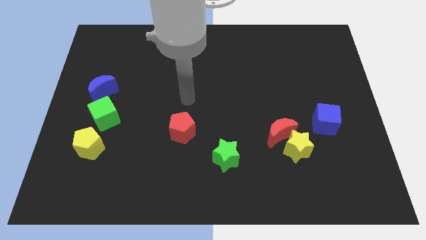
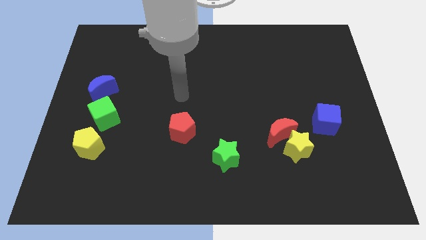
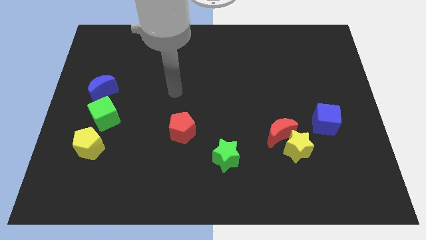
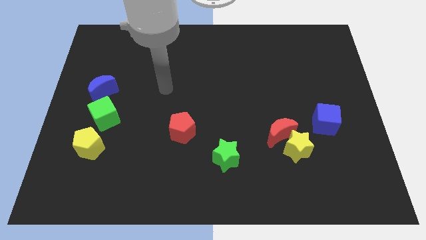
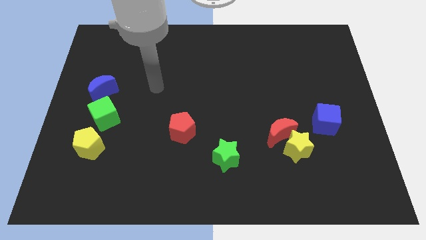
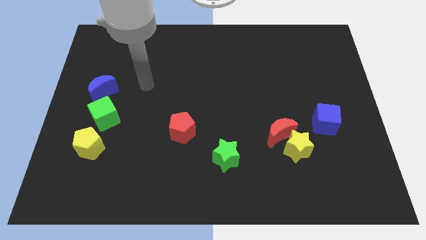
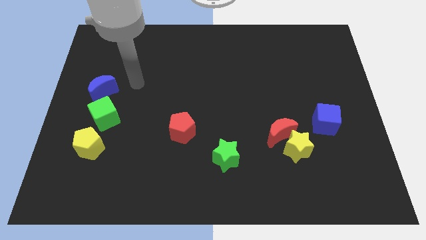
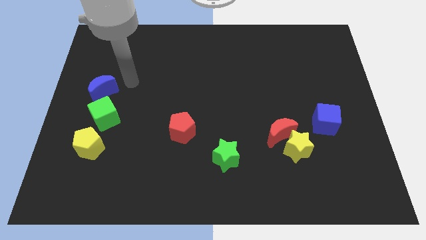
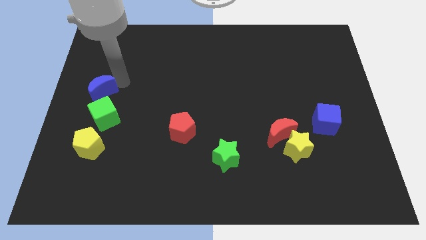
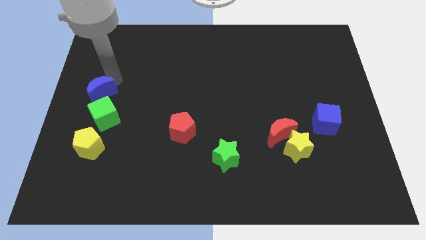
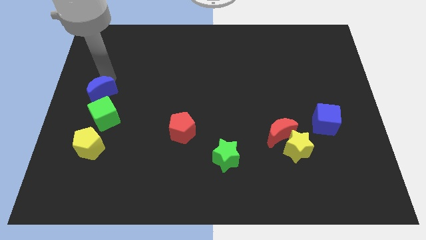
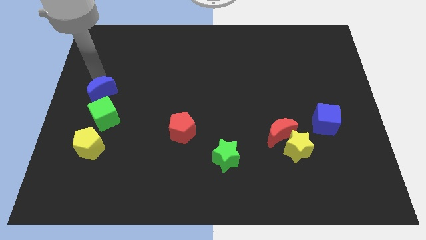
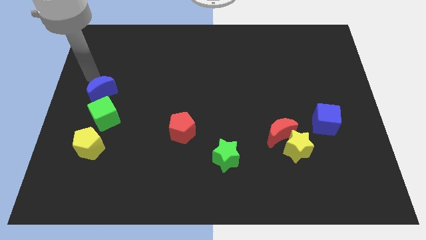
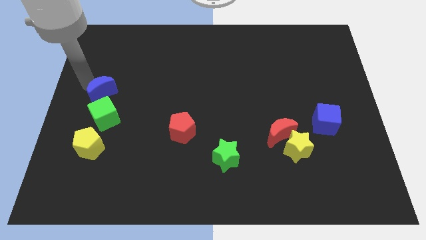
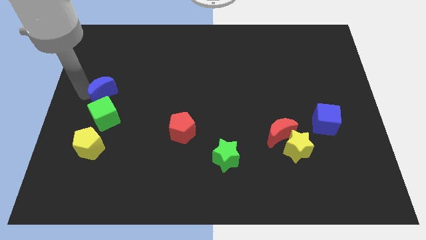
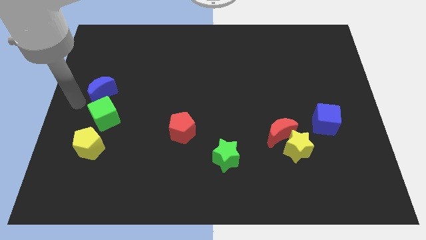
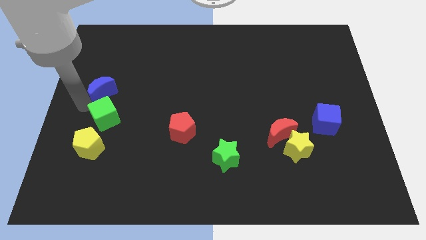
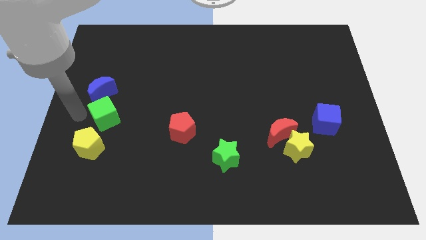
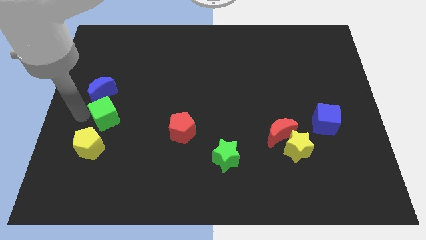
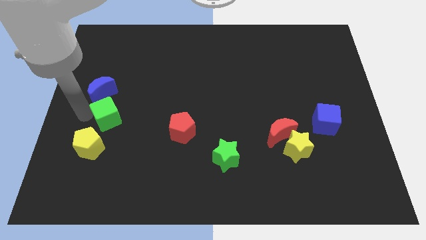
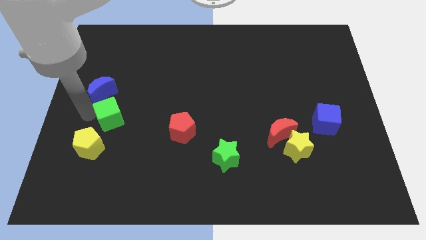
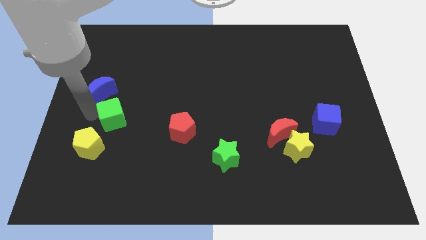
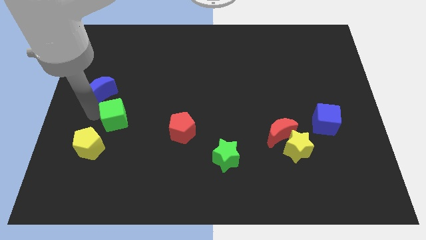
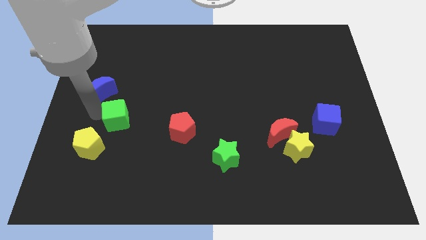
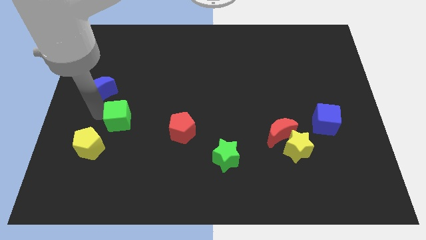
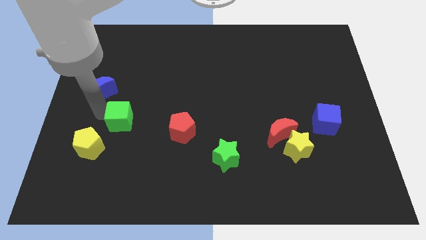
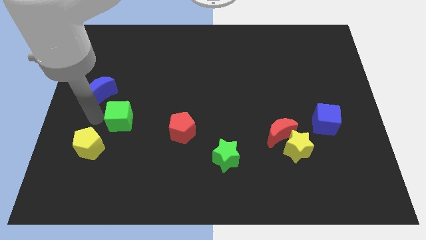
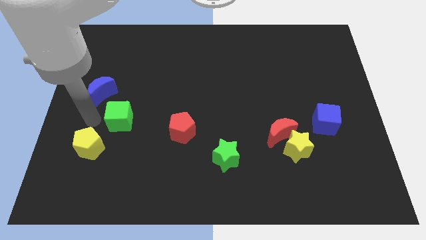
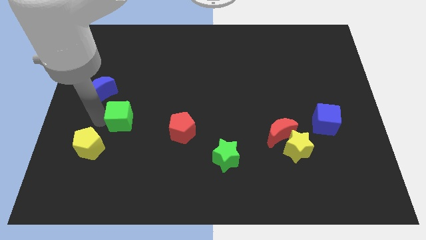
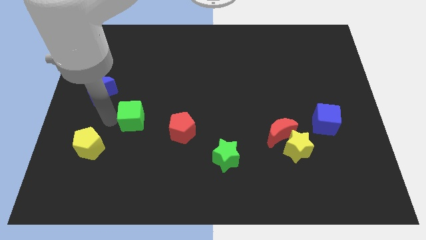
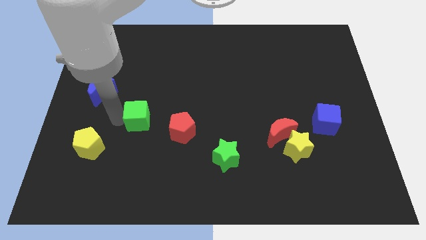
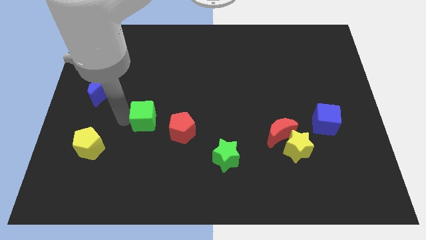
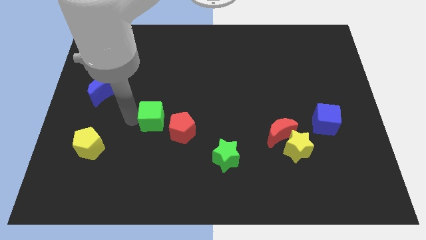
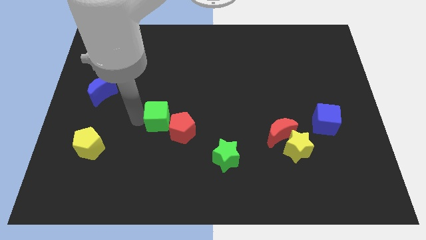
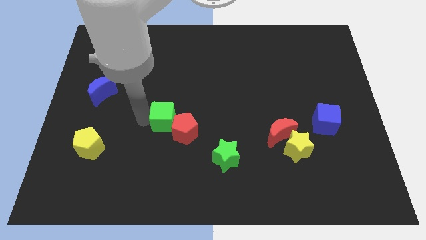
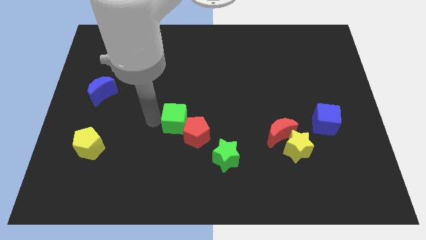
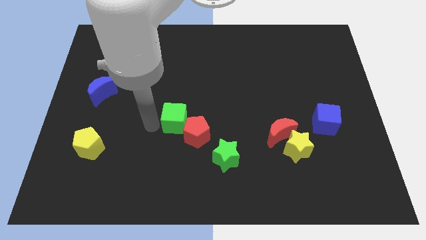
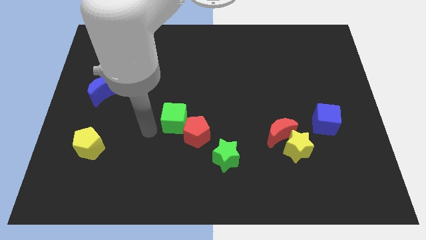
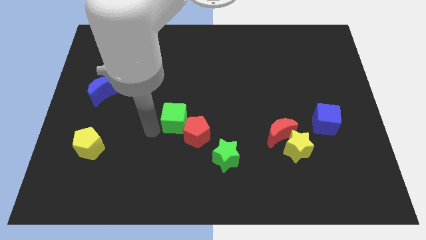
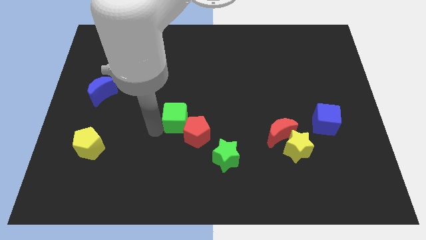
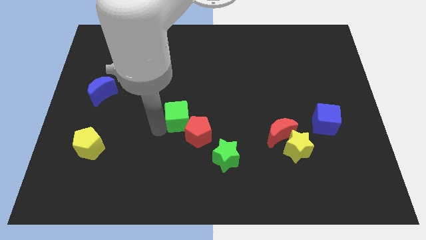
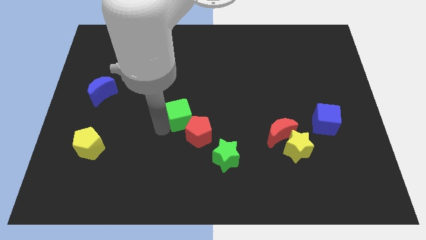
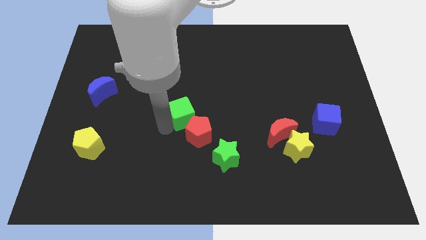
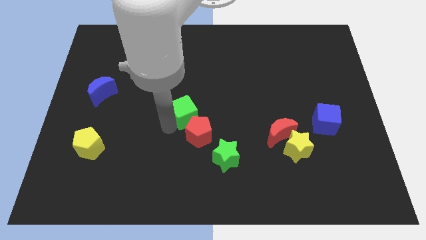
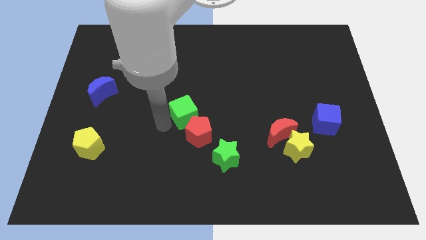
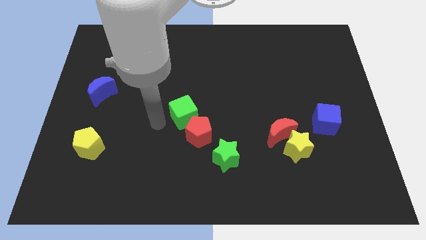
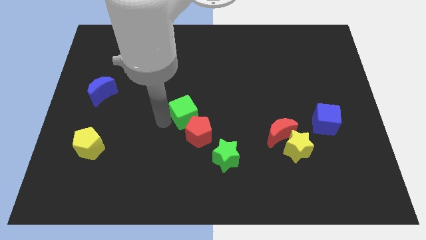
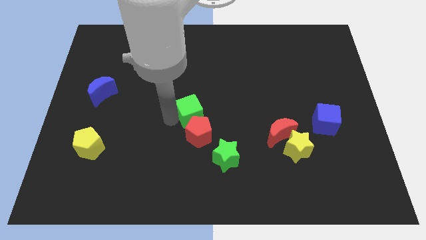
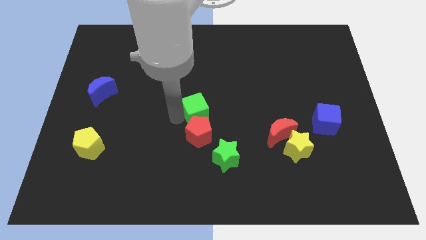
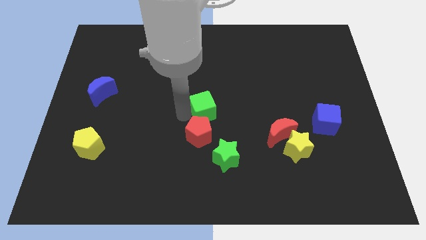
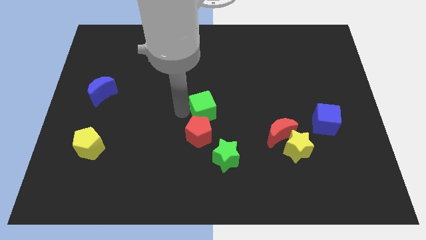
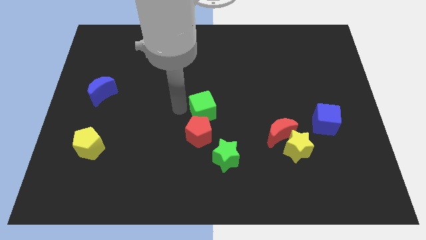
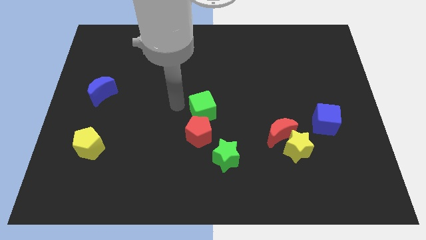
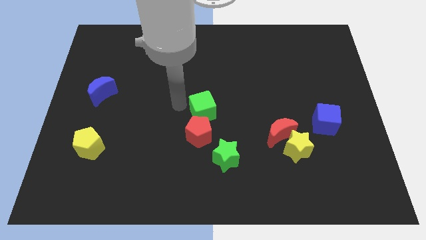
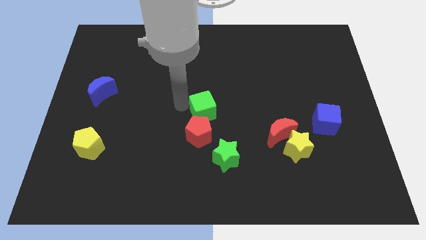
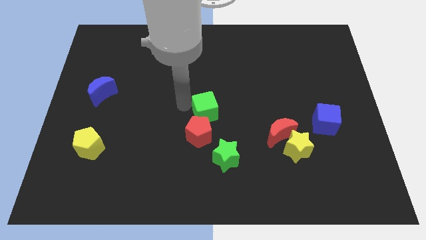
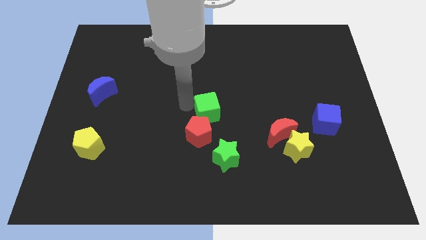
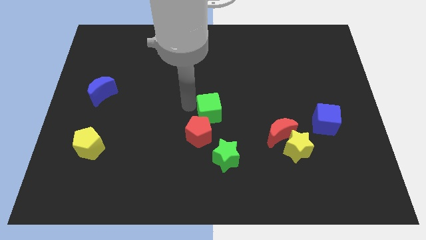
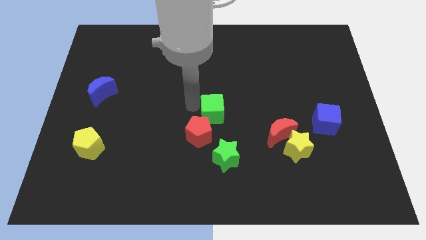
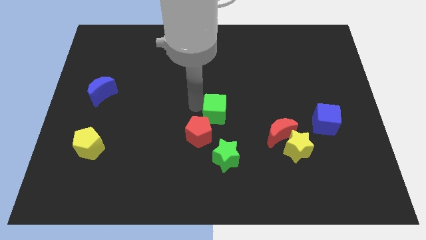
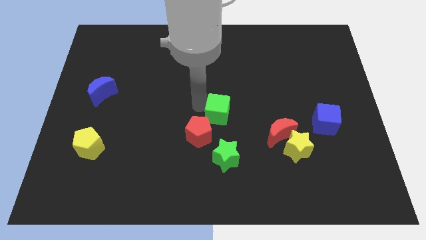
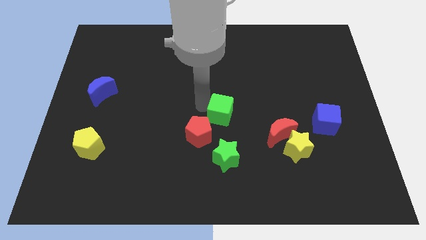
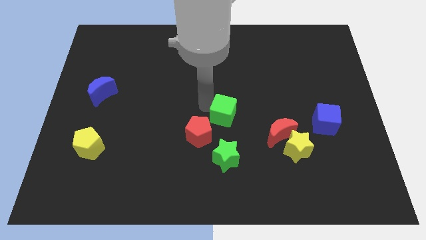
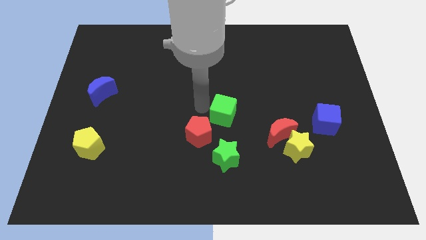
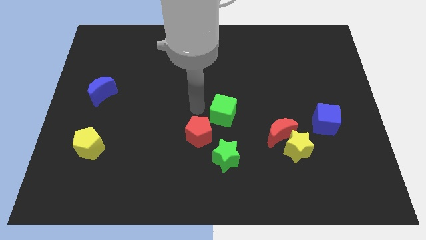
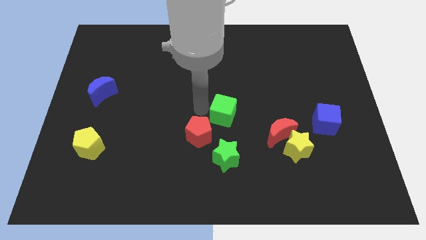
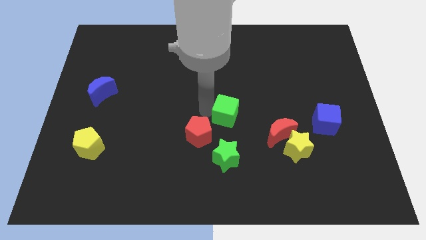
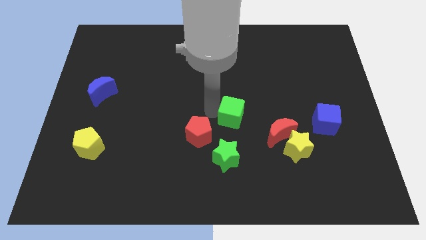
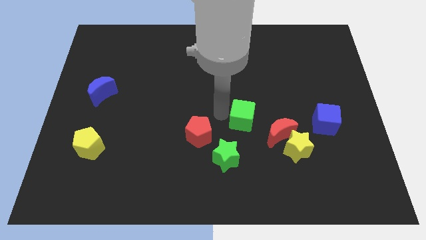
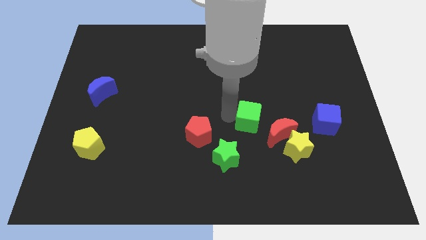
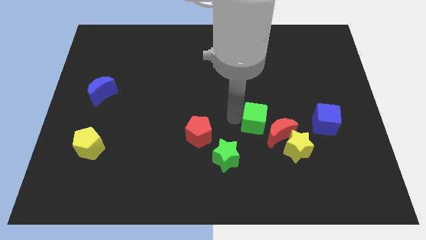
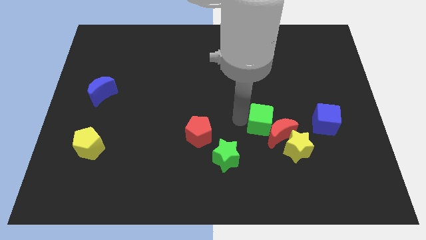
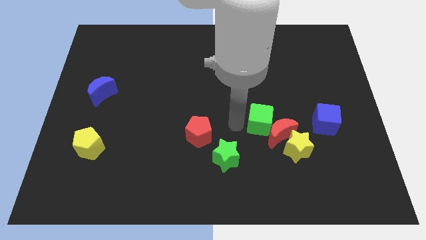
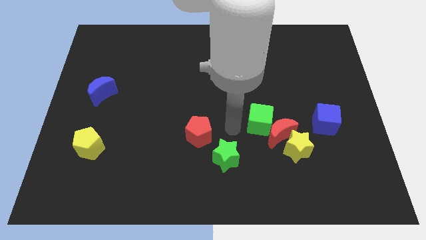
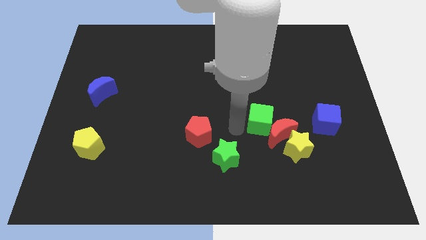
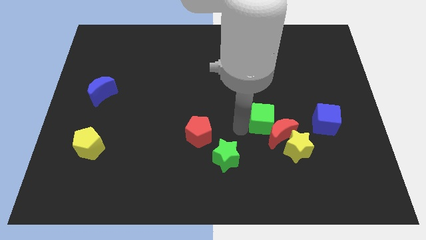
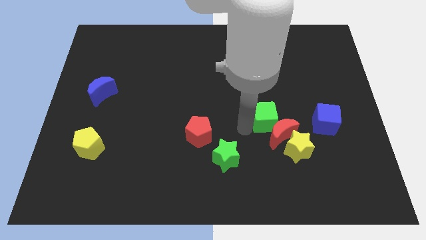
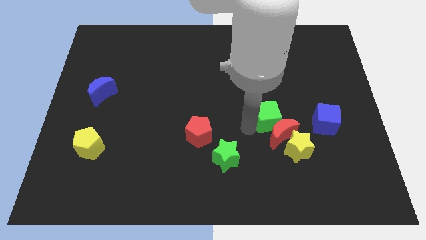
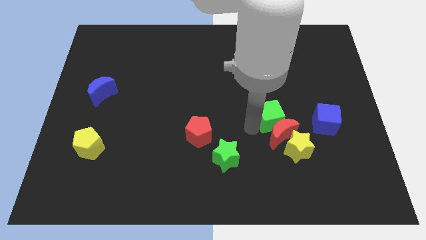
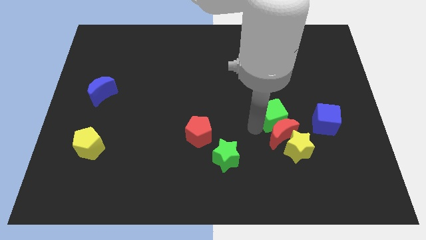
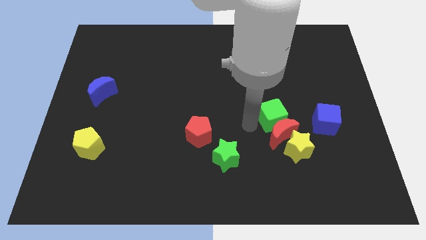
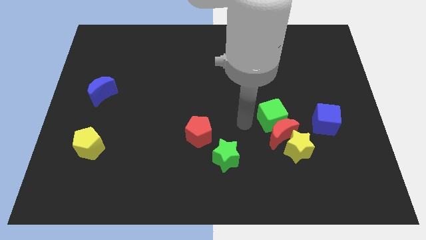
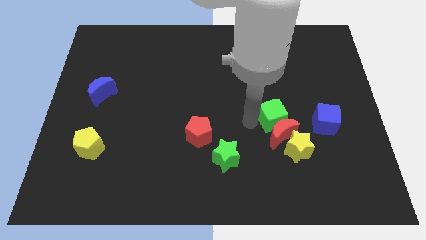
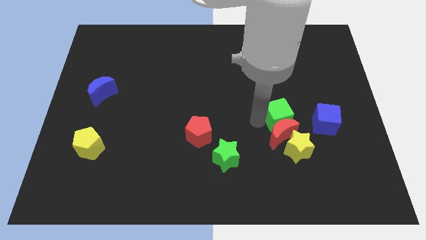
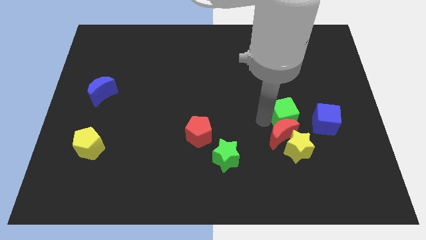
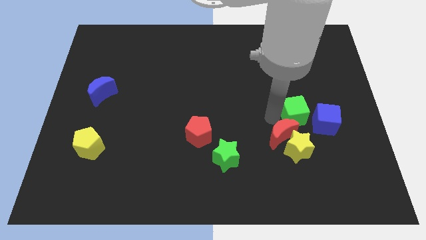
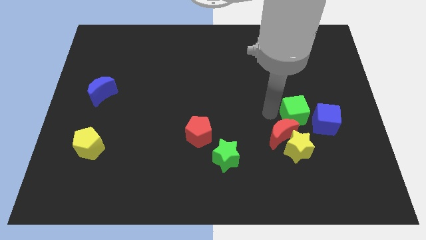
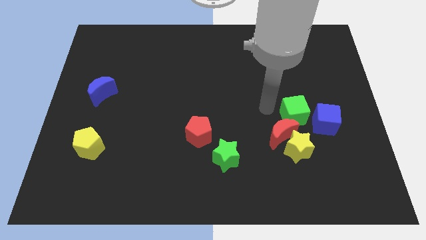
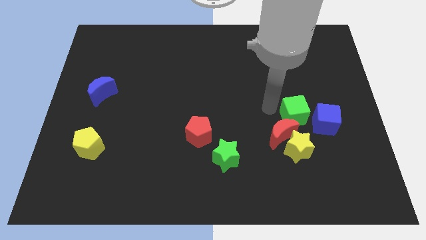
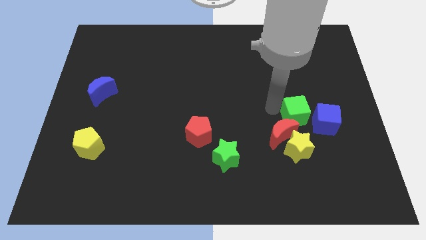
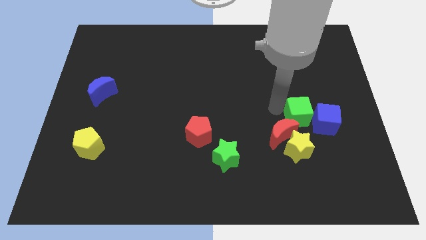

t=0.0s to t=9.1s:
slide the green cube close to the blue cube
